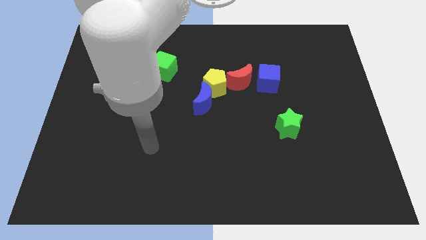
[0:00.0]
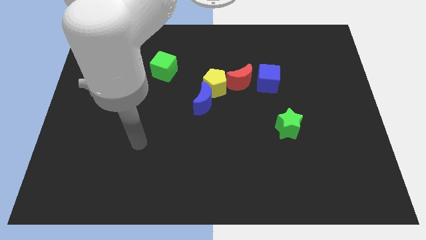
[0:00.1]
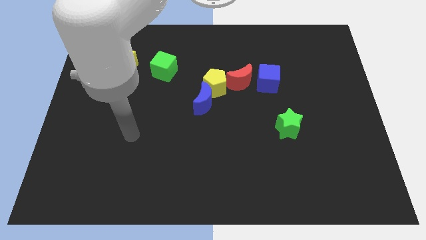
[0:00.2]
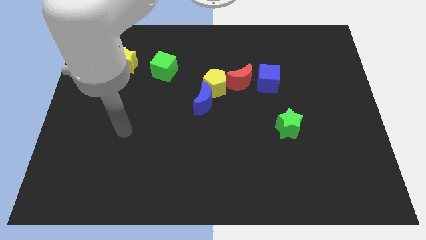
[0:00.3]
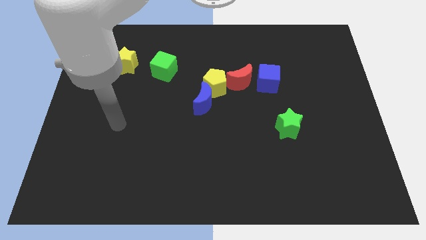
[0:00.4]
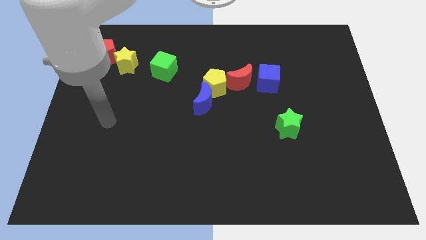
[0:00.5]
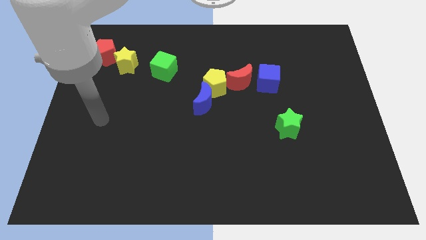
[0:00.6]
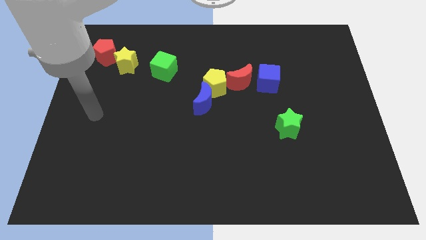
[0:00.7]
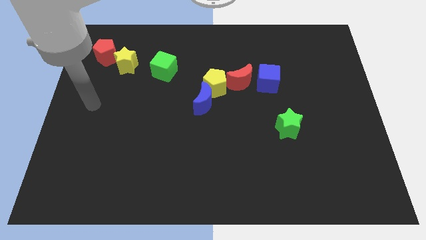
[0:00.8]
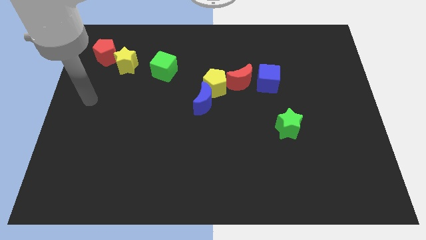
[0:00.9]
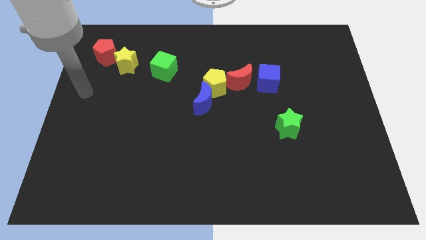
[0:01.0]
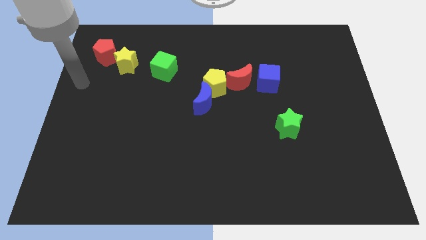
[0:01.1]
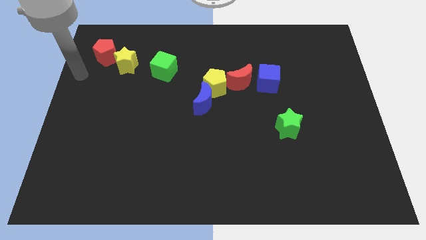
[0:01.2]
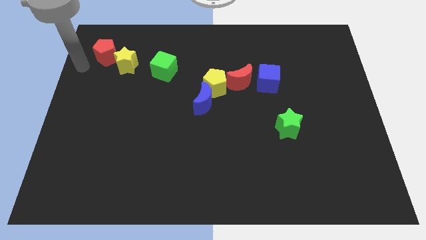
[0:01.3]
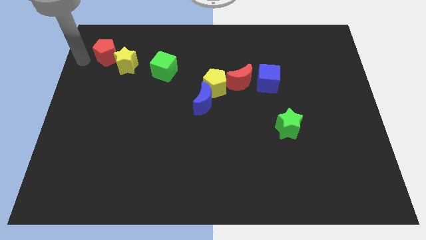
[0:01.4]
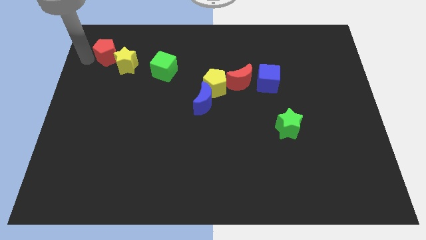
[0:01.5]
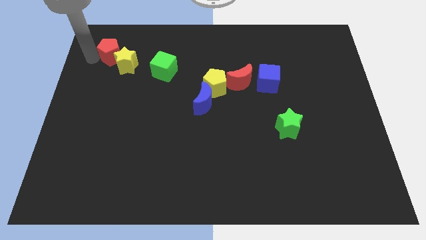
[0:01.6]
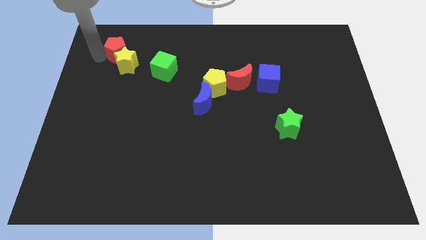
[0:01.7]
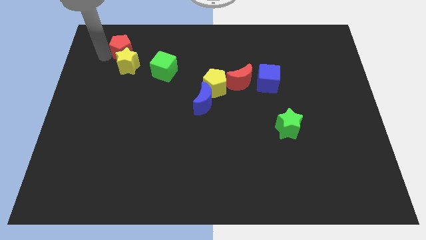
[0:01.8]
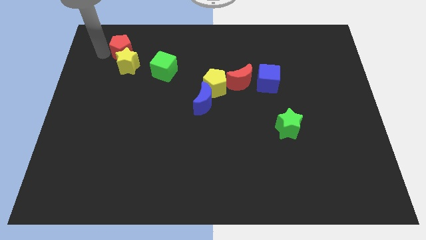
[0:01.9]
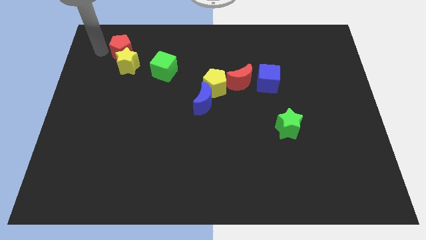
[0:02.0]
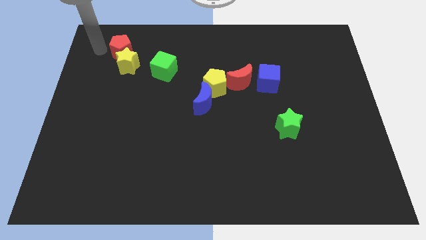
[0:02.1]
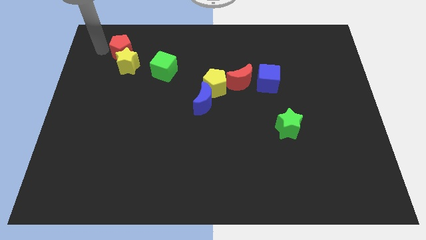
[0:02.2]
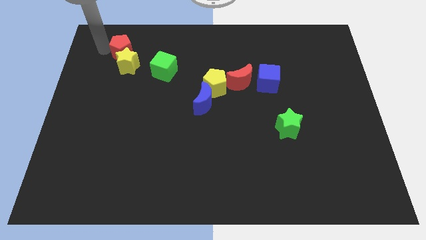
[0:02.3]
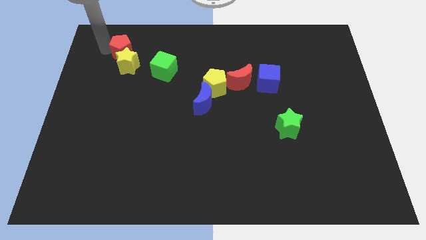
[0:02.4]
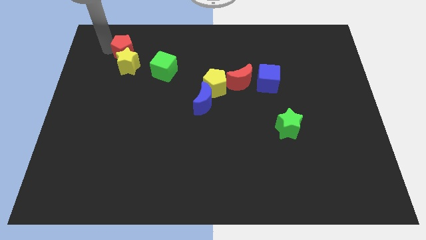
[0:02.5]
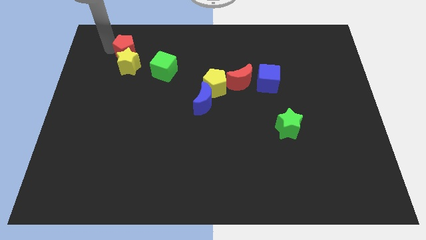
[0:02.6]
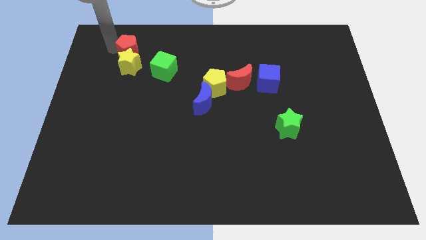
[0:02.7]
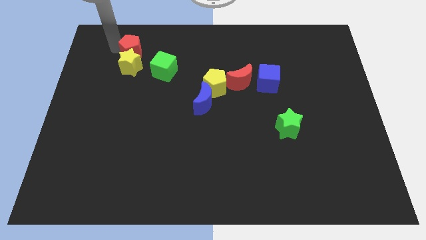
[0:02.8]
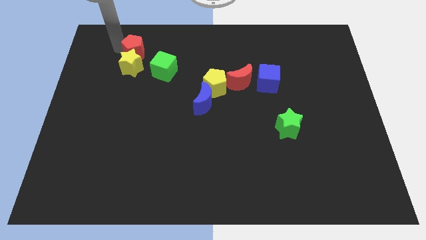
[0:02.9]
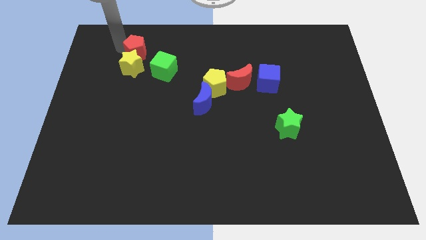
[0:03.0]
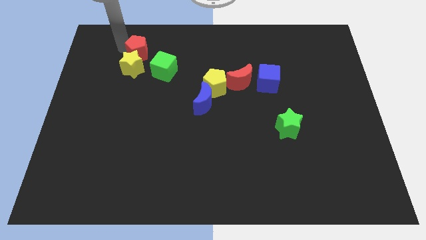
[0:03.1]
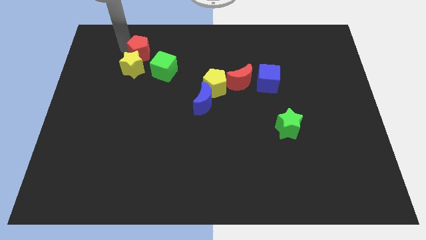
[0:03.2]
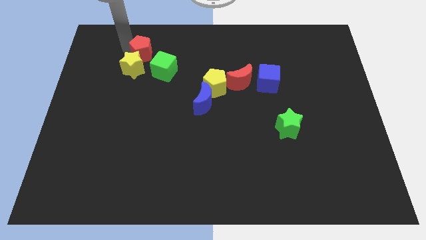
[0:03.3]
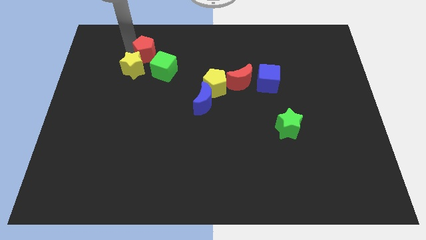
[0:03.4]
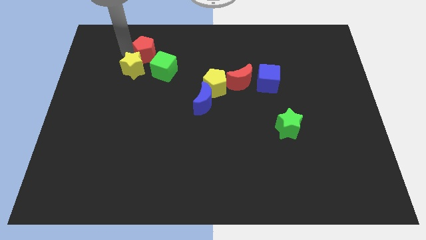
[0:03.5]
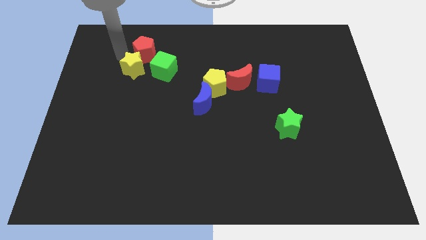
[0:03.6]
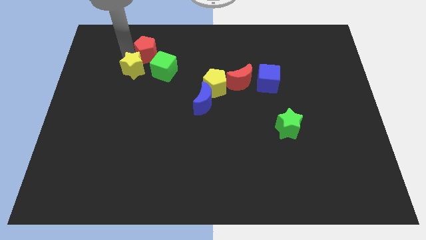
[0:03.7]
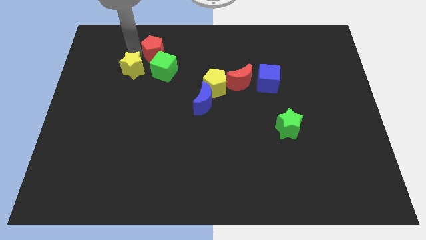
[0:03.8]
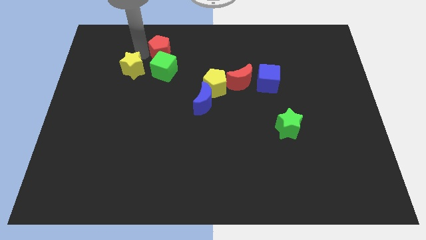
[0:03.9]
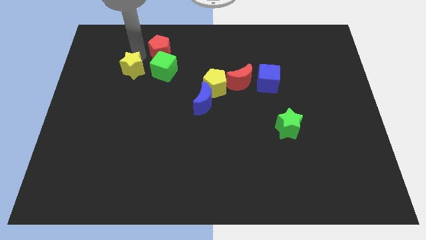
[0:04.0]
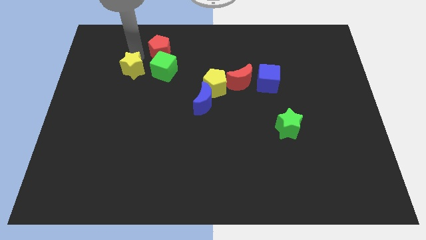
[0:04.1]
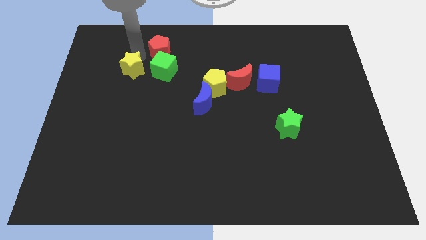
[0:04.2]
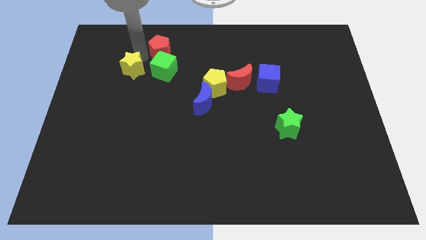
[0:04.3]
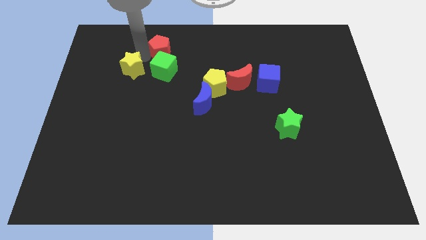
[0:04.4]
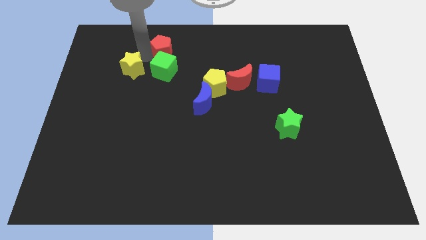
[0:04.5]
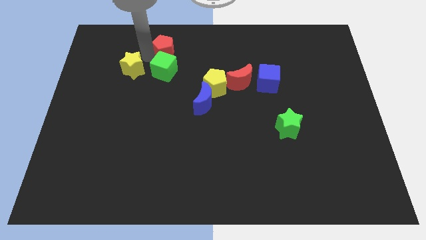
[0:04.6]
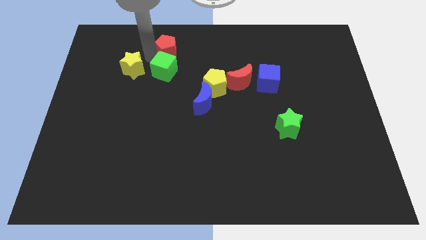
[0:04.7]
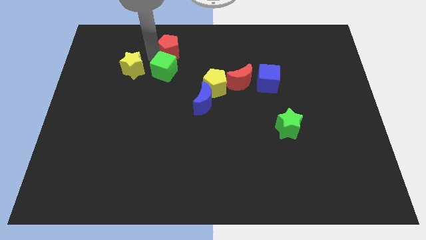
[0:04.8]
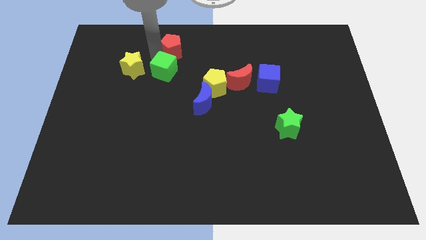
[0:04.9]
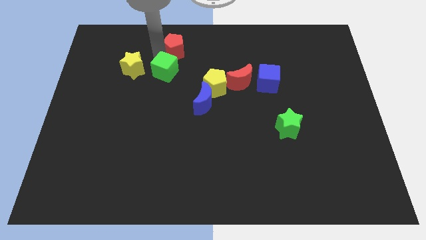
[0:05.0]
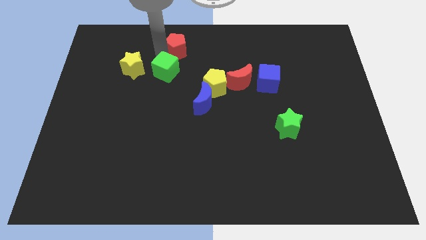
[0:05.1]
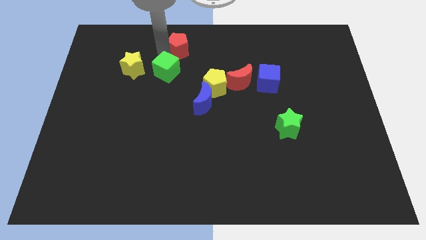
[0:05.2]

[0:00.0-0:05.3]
slide the red pentagon to the top side

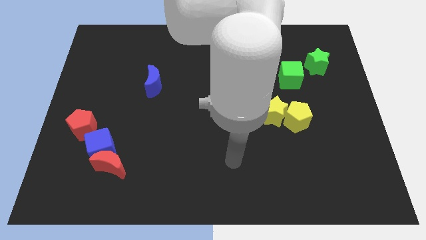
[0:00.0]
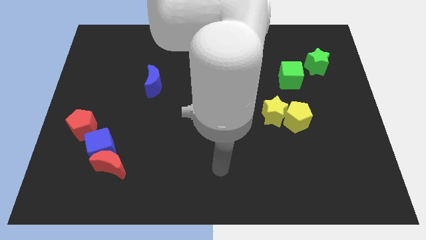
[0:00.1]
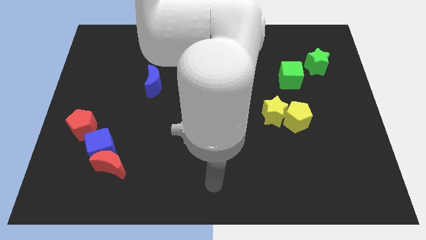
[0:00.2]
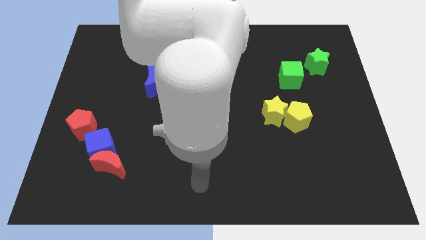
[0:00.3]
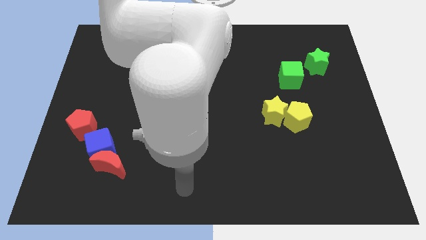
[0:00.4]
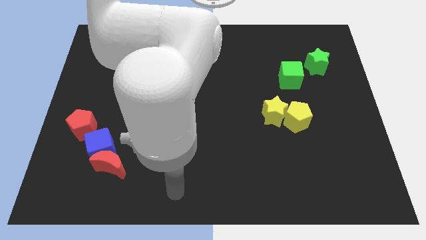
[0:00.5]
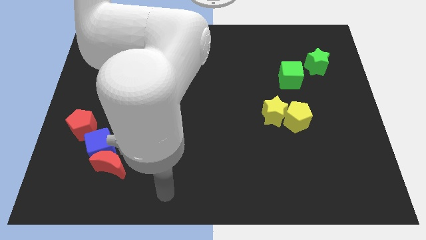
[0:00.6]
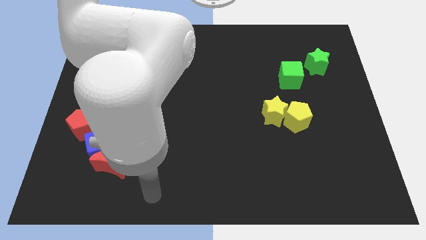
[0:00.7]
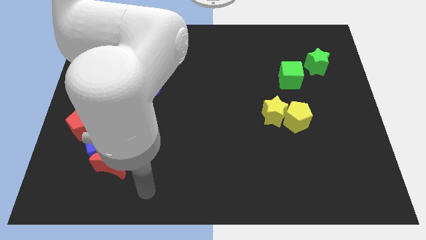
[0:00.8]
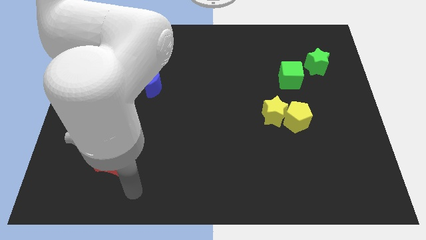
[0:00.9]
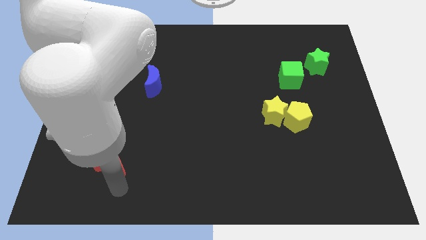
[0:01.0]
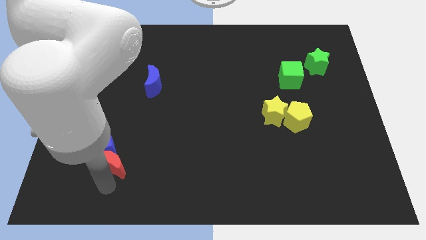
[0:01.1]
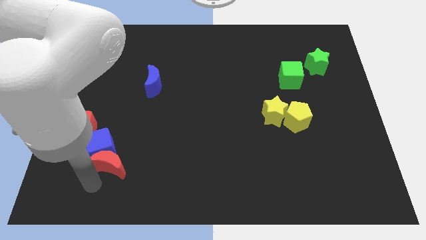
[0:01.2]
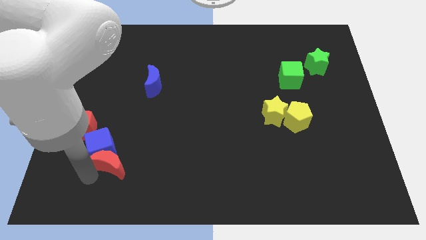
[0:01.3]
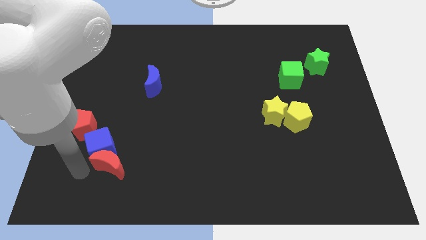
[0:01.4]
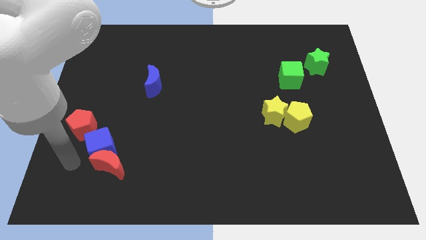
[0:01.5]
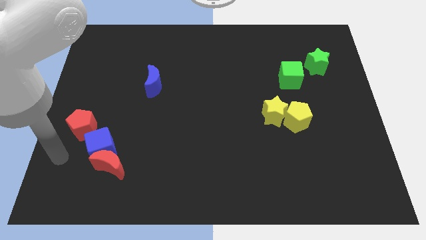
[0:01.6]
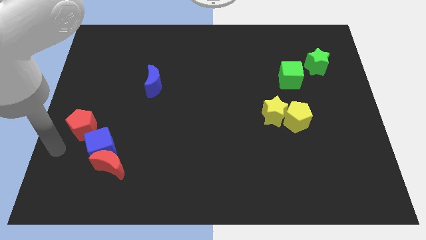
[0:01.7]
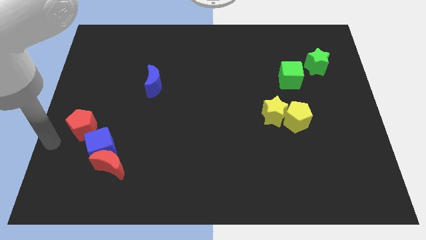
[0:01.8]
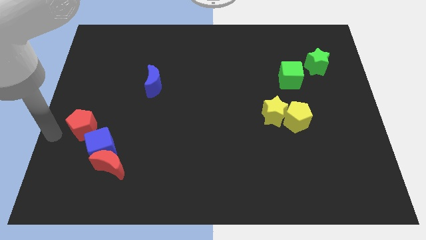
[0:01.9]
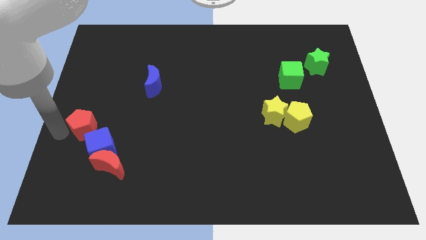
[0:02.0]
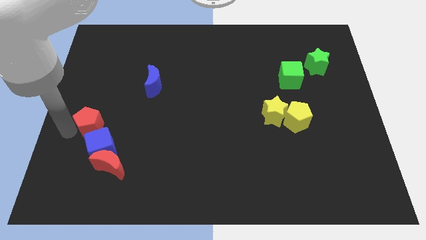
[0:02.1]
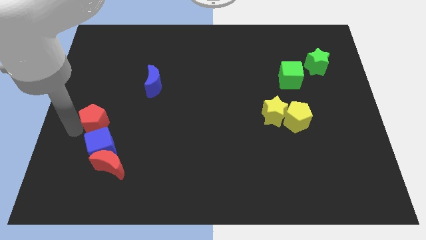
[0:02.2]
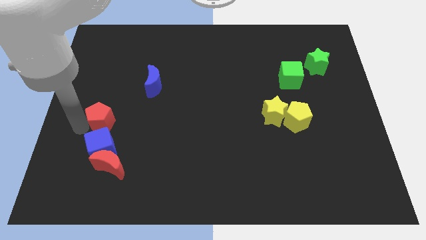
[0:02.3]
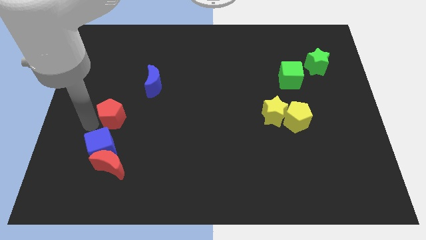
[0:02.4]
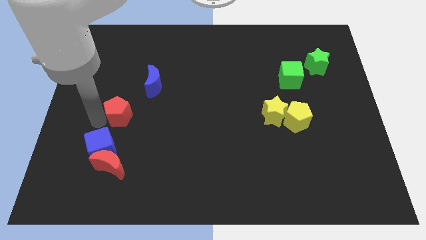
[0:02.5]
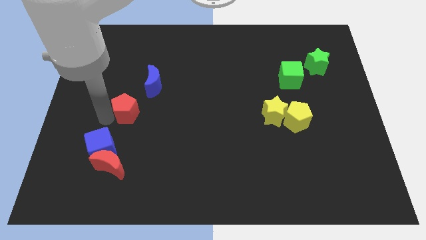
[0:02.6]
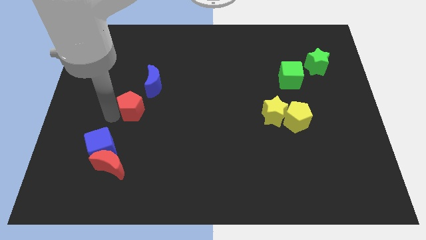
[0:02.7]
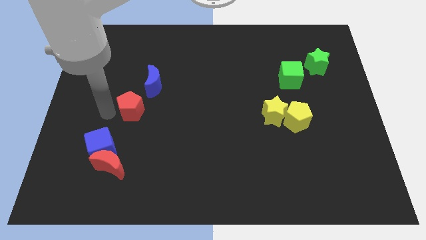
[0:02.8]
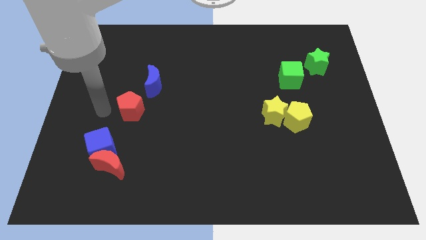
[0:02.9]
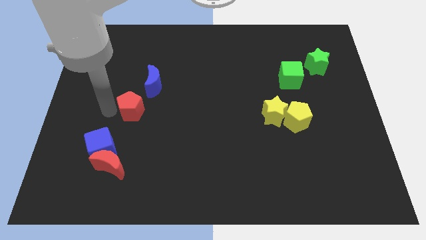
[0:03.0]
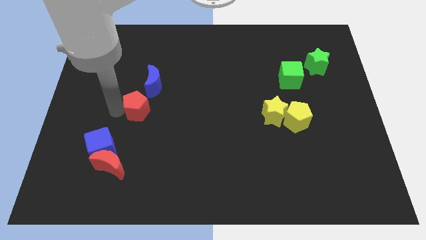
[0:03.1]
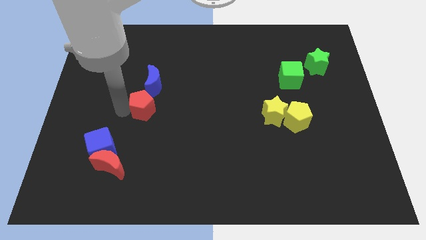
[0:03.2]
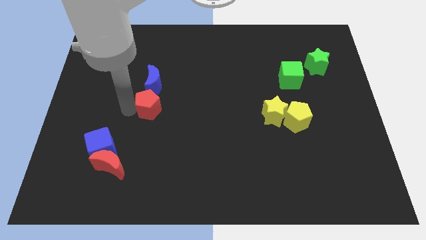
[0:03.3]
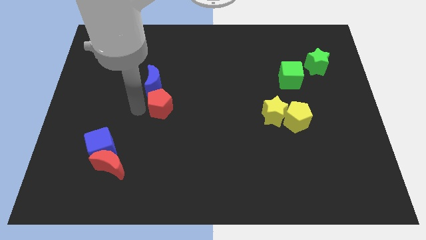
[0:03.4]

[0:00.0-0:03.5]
slide the red pentagon to the middle of the board
